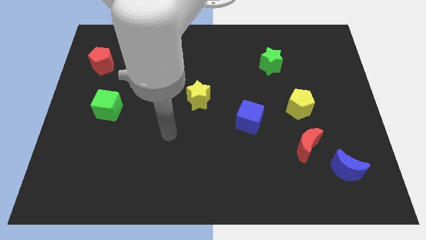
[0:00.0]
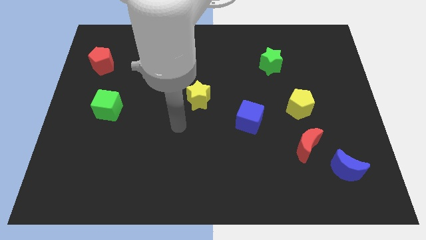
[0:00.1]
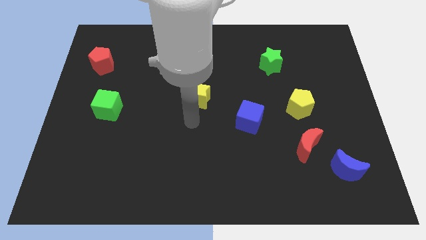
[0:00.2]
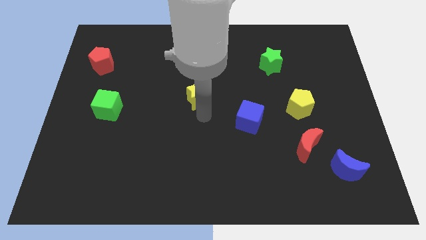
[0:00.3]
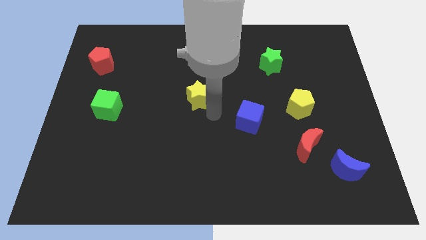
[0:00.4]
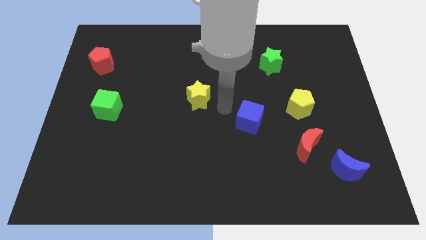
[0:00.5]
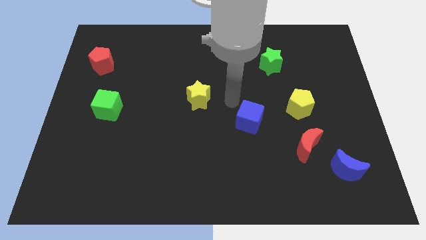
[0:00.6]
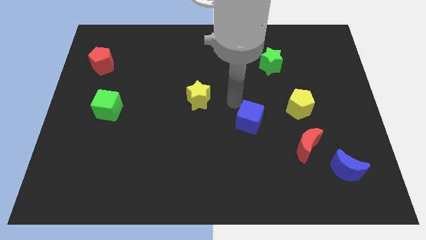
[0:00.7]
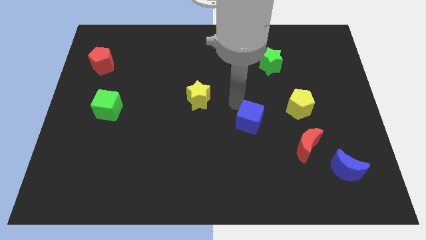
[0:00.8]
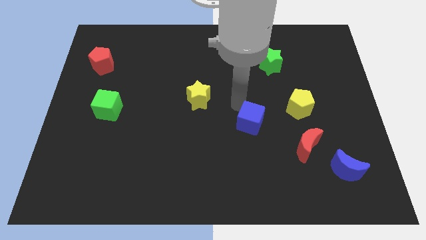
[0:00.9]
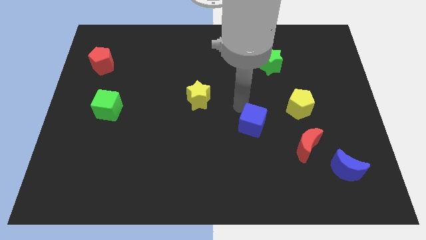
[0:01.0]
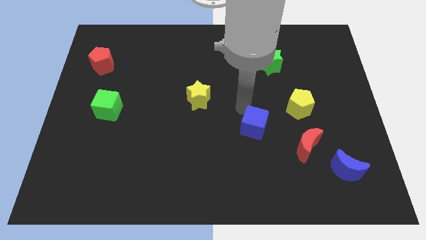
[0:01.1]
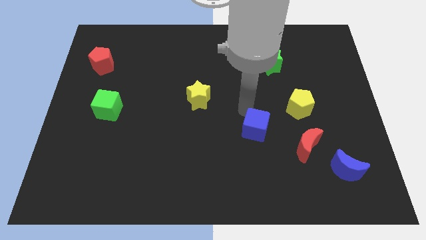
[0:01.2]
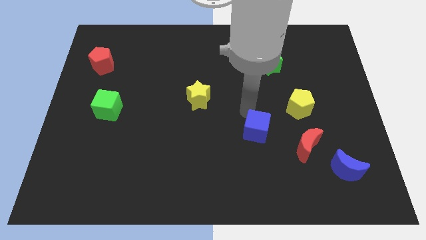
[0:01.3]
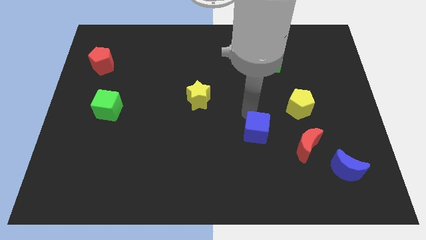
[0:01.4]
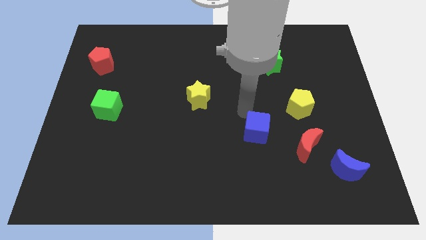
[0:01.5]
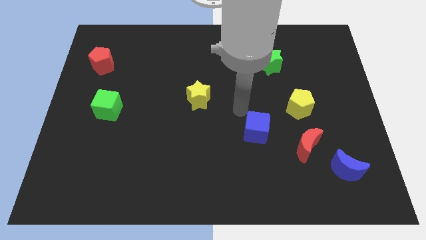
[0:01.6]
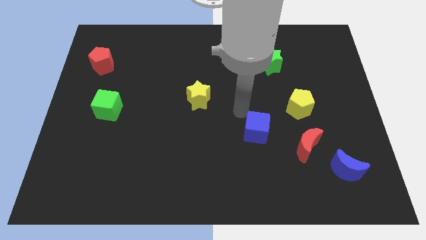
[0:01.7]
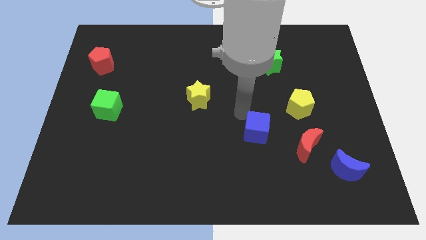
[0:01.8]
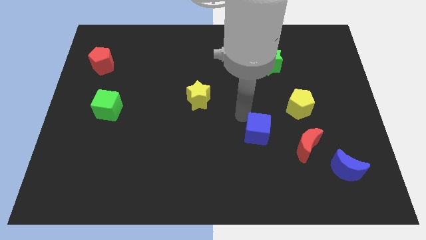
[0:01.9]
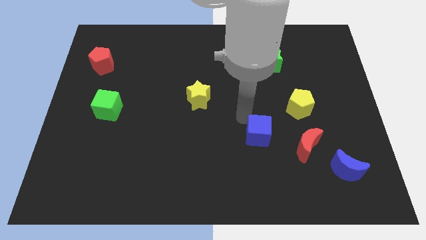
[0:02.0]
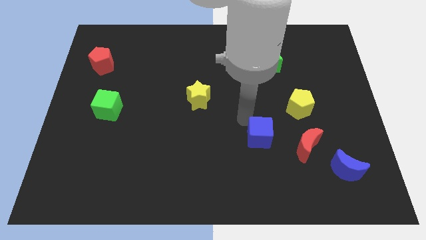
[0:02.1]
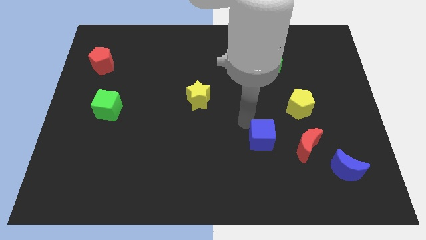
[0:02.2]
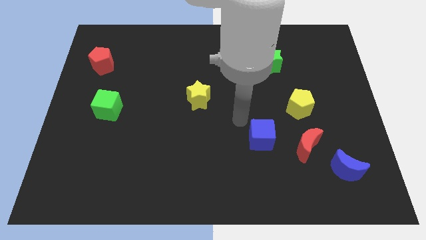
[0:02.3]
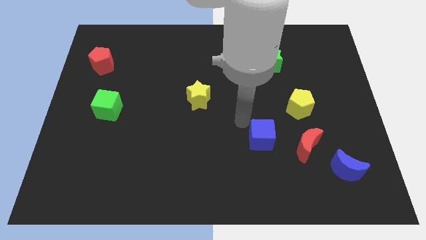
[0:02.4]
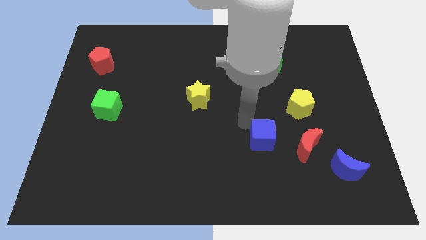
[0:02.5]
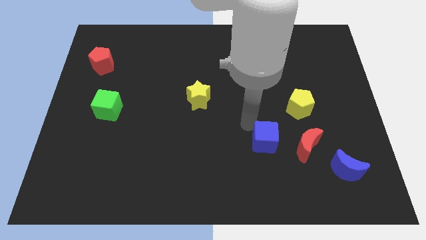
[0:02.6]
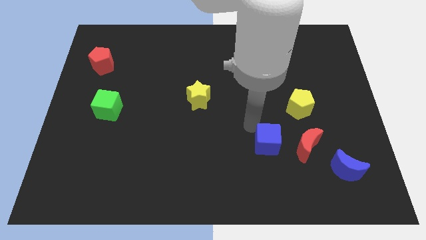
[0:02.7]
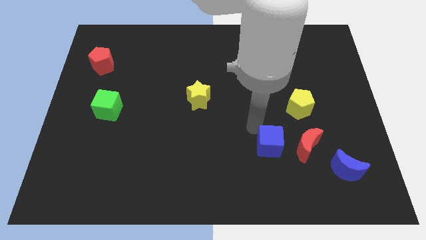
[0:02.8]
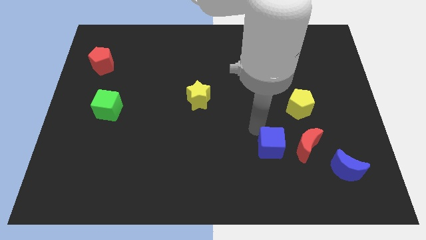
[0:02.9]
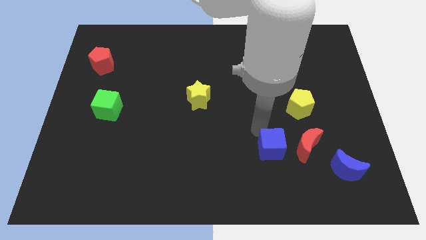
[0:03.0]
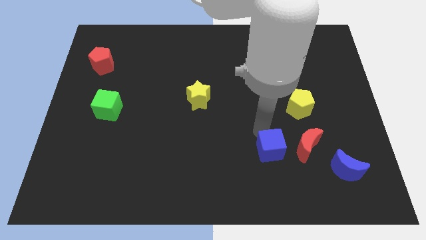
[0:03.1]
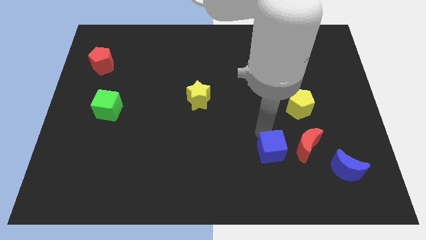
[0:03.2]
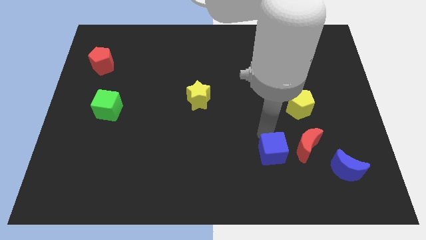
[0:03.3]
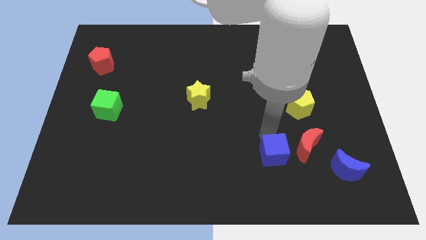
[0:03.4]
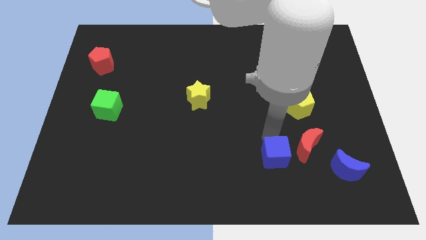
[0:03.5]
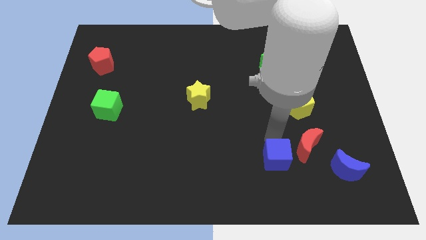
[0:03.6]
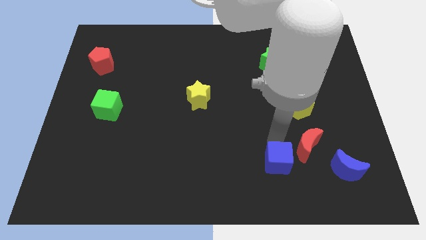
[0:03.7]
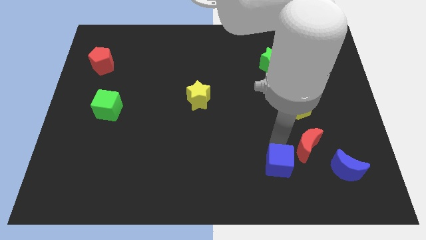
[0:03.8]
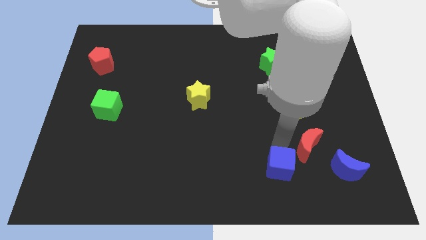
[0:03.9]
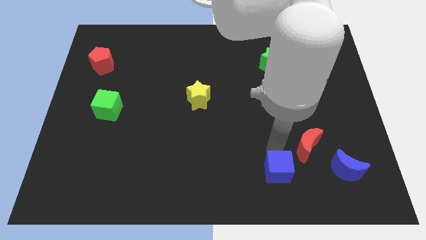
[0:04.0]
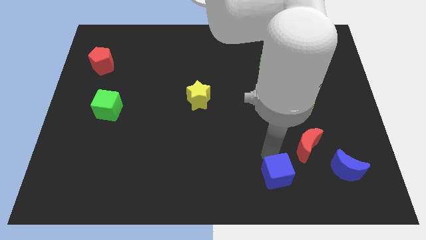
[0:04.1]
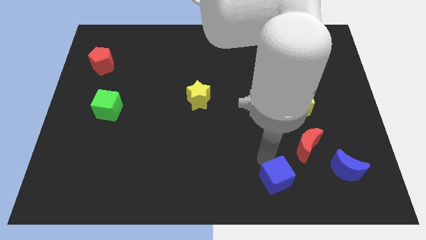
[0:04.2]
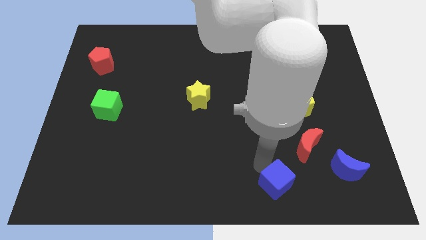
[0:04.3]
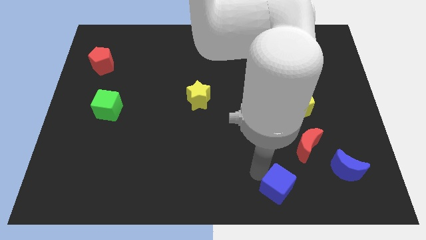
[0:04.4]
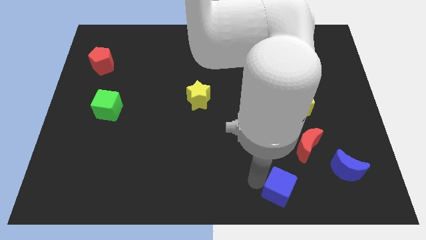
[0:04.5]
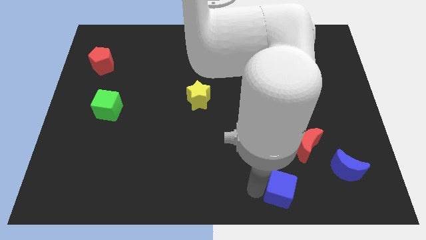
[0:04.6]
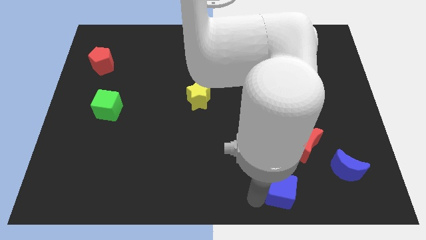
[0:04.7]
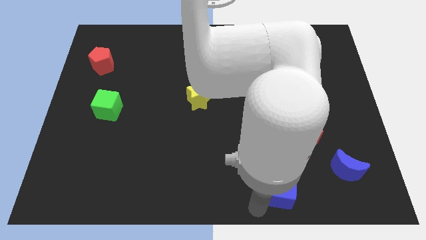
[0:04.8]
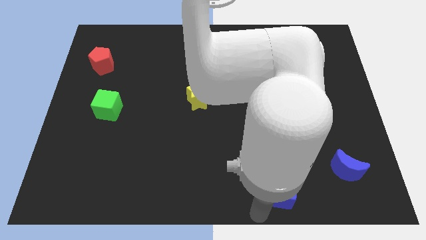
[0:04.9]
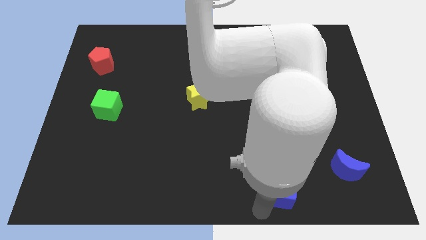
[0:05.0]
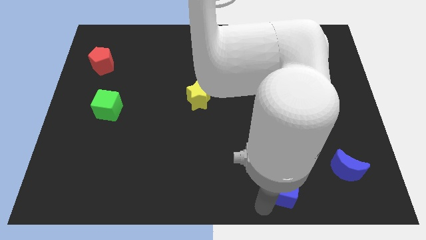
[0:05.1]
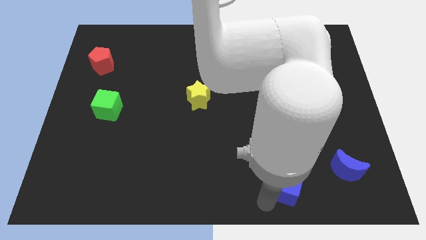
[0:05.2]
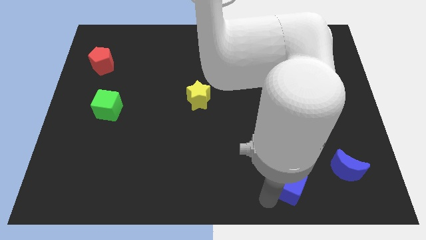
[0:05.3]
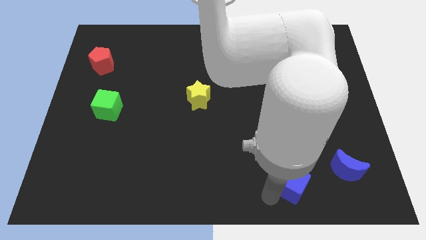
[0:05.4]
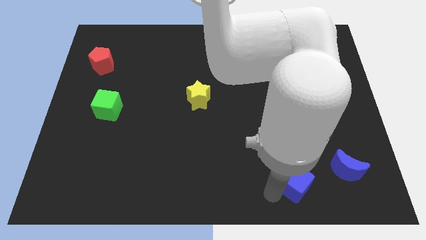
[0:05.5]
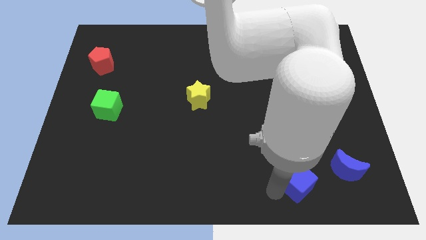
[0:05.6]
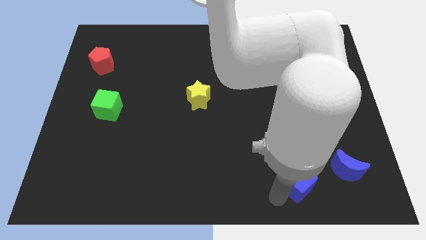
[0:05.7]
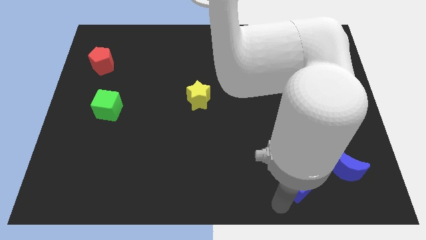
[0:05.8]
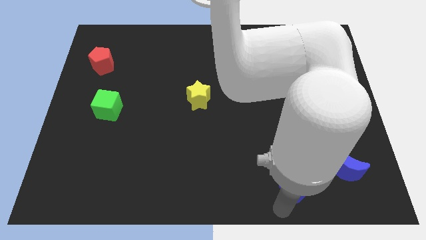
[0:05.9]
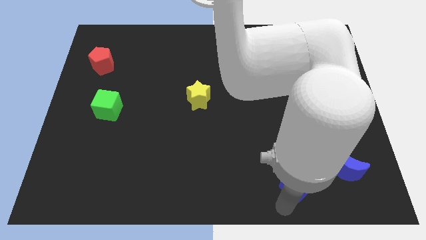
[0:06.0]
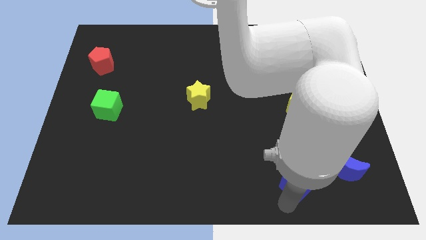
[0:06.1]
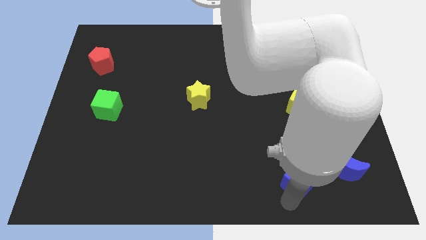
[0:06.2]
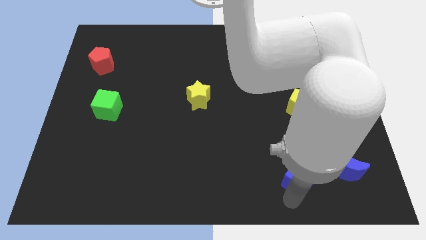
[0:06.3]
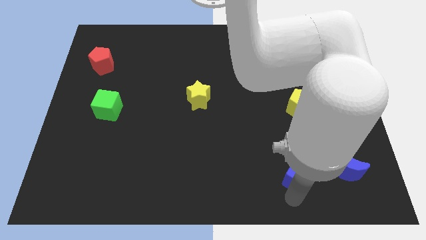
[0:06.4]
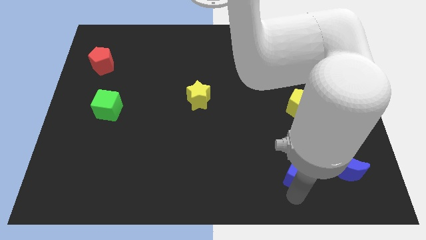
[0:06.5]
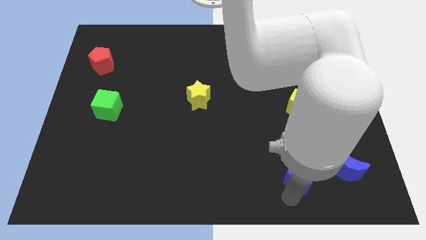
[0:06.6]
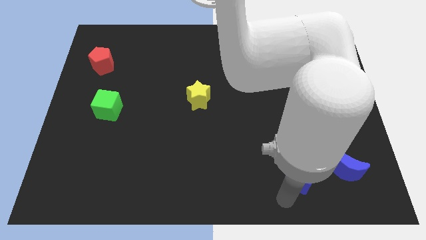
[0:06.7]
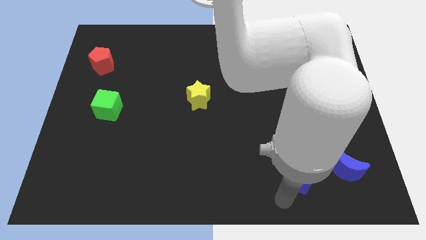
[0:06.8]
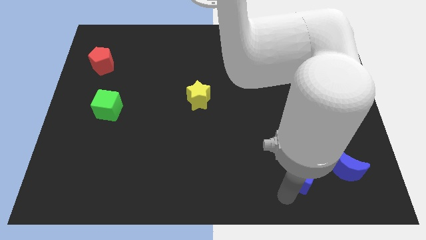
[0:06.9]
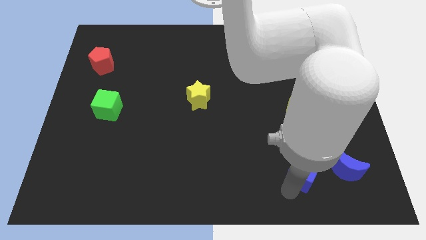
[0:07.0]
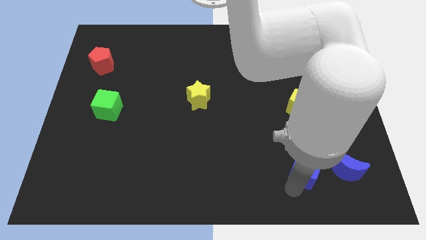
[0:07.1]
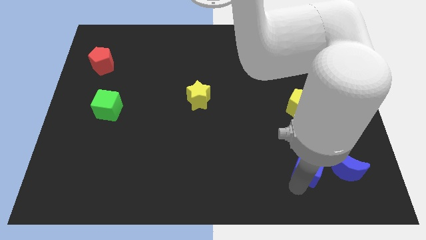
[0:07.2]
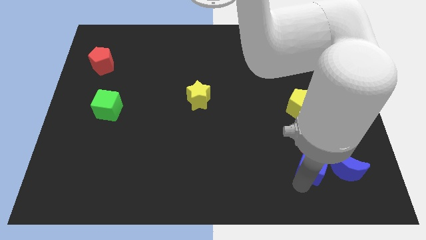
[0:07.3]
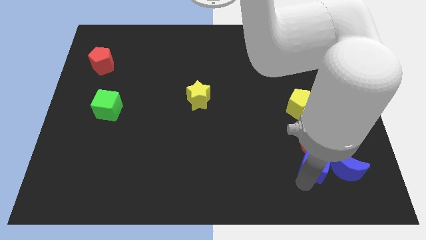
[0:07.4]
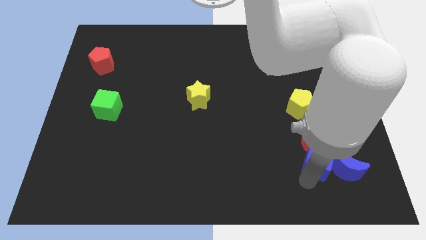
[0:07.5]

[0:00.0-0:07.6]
slide the blue cube towards the blue moon
